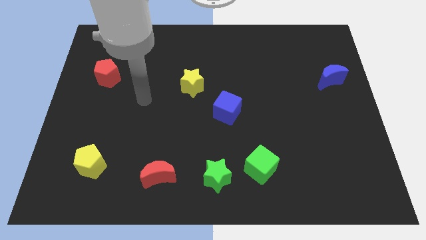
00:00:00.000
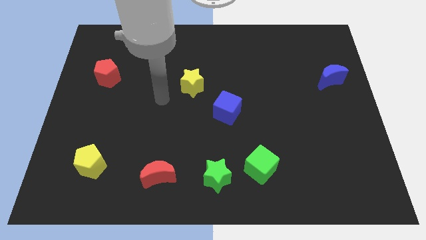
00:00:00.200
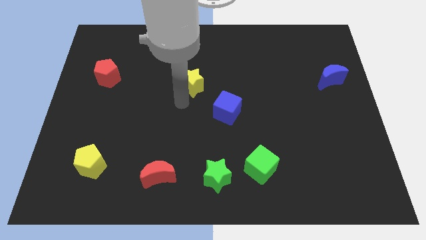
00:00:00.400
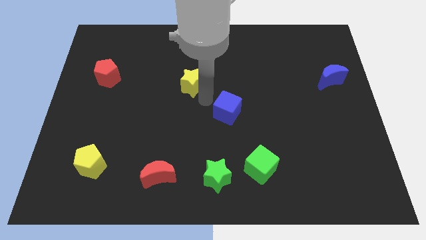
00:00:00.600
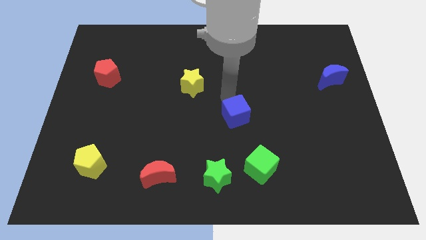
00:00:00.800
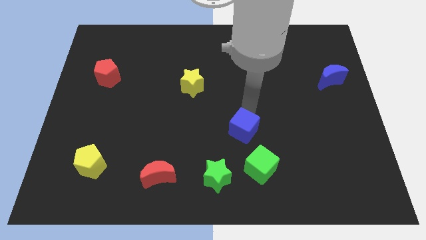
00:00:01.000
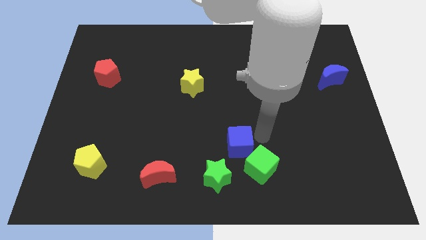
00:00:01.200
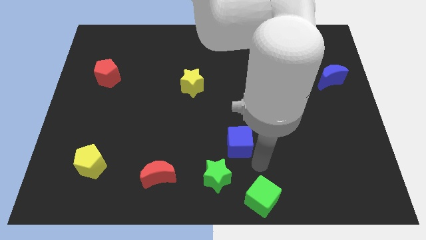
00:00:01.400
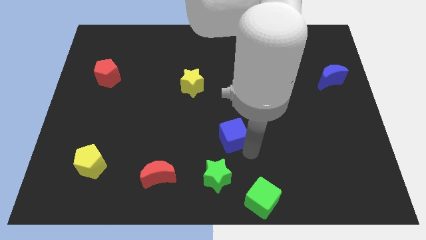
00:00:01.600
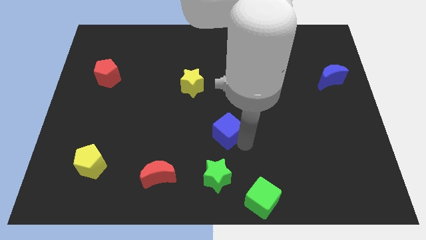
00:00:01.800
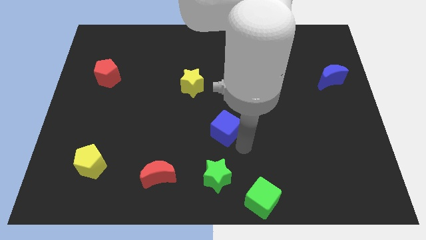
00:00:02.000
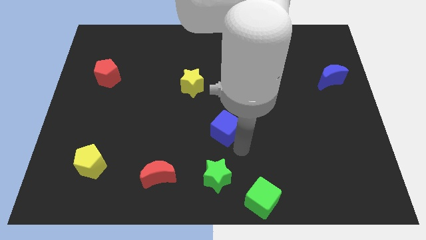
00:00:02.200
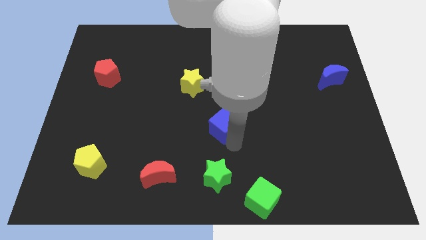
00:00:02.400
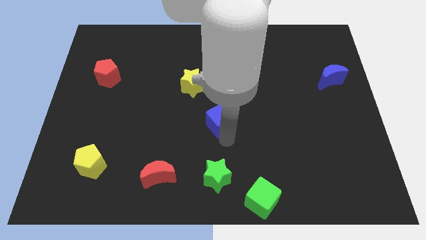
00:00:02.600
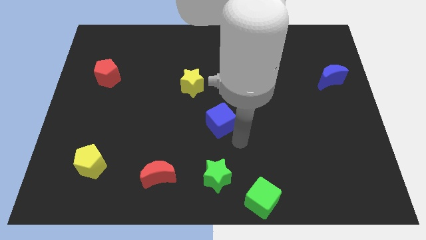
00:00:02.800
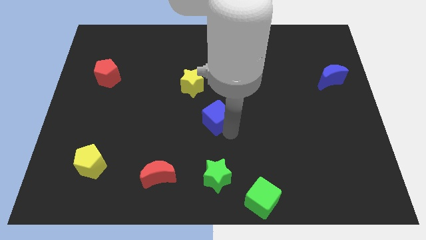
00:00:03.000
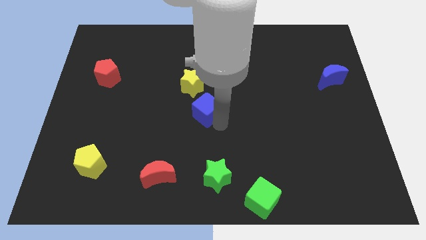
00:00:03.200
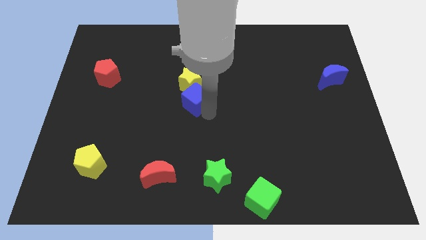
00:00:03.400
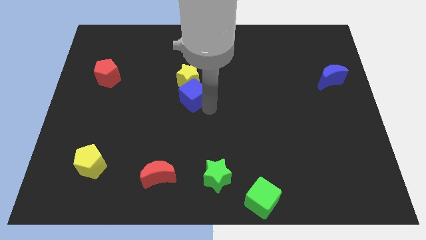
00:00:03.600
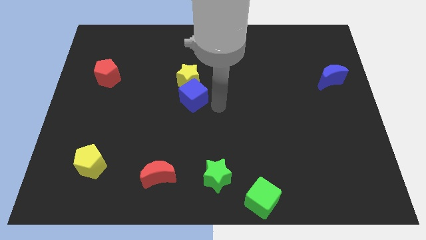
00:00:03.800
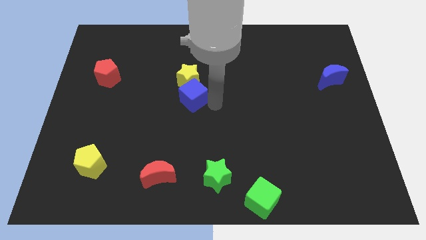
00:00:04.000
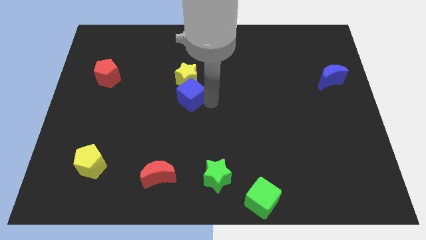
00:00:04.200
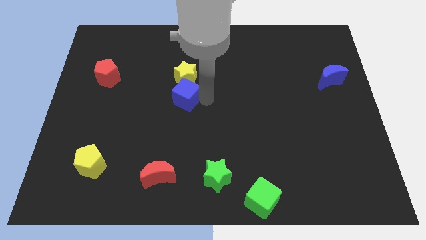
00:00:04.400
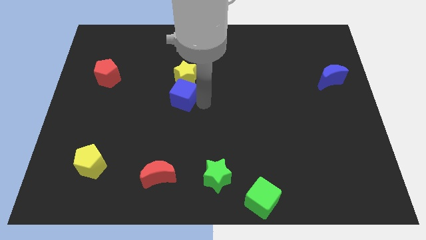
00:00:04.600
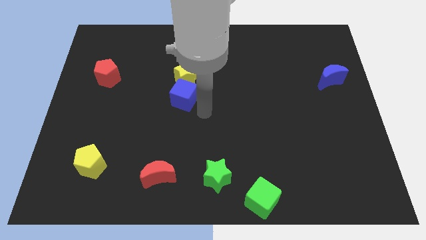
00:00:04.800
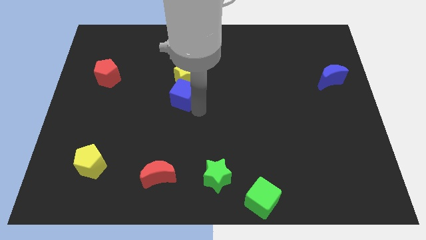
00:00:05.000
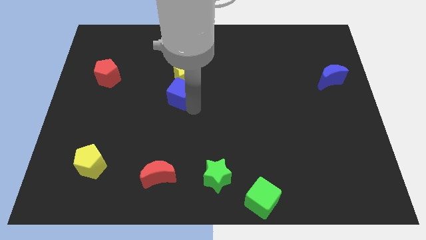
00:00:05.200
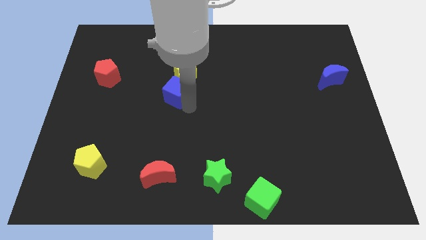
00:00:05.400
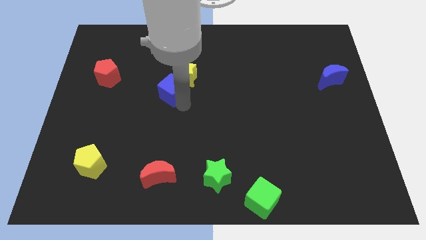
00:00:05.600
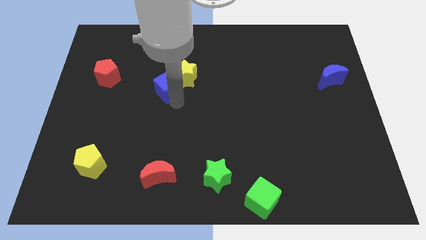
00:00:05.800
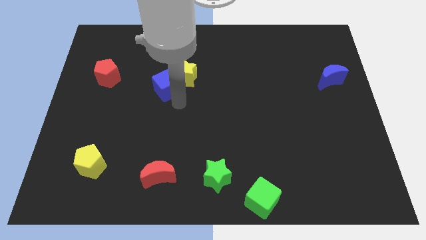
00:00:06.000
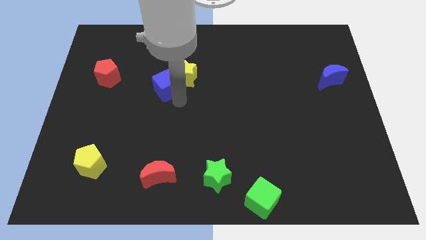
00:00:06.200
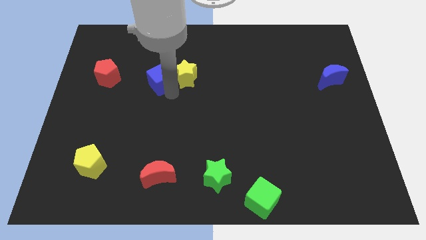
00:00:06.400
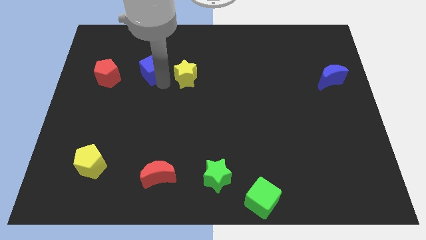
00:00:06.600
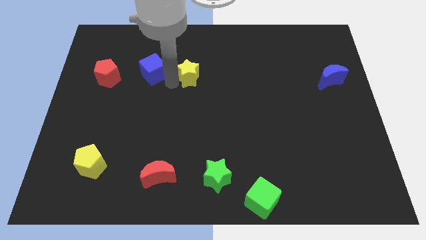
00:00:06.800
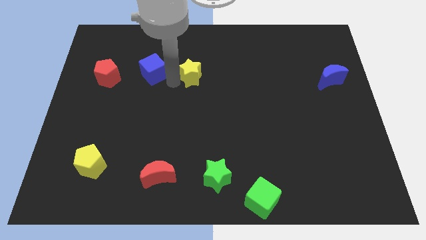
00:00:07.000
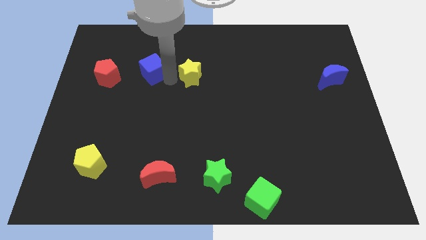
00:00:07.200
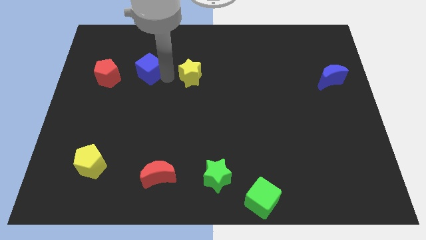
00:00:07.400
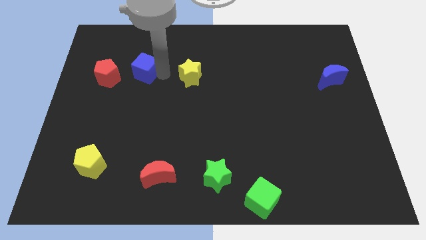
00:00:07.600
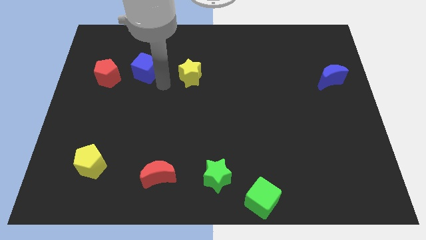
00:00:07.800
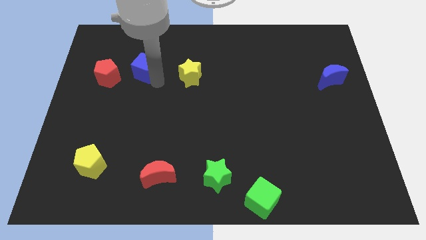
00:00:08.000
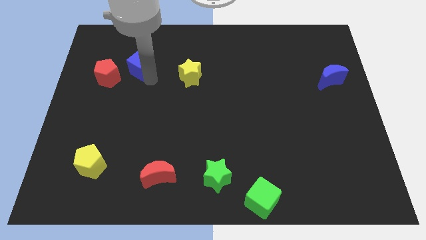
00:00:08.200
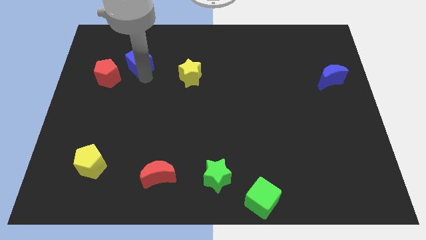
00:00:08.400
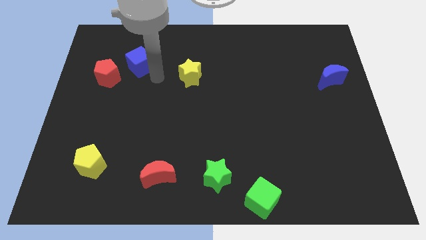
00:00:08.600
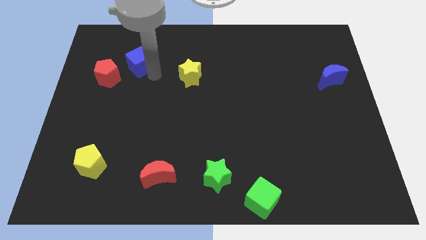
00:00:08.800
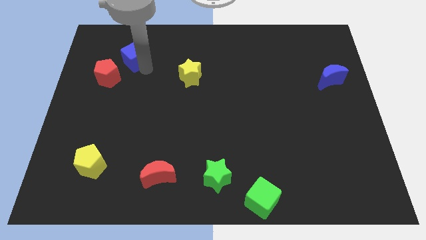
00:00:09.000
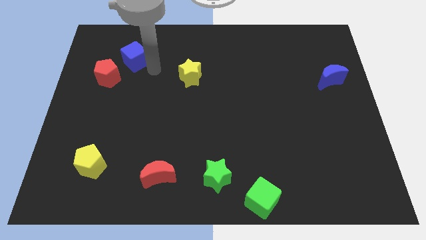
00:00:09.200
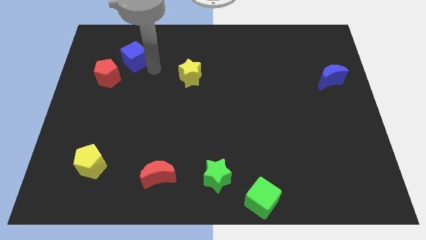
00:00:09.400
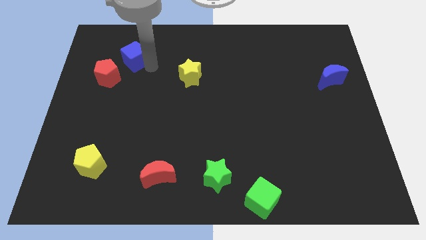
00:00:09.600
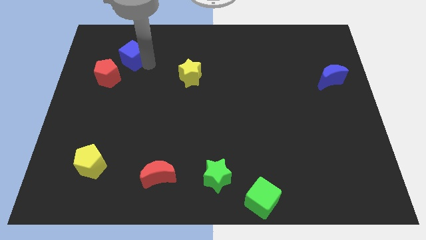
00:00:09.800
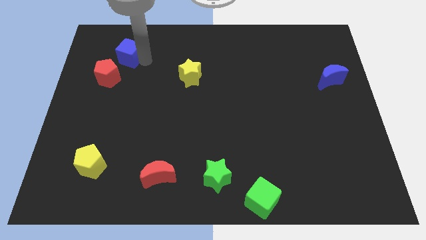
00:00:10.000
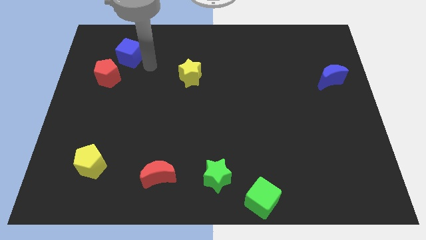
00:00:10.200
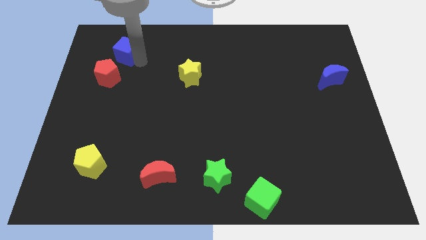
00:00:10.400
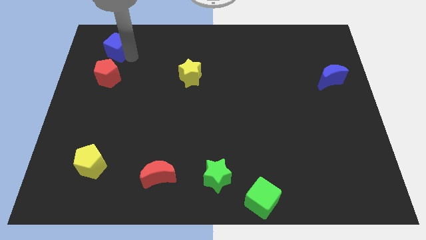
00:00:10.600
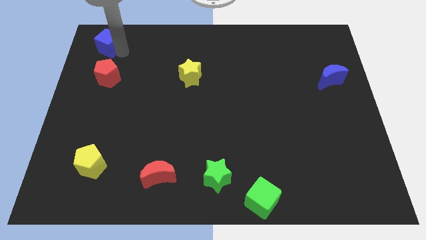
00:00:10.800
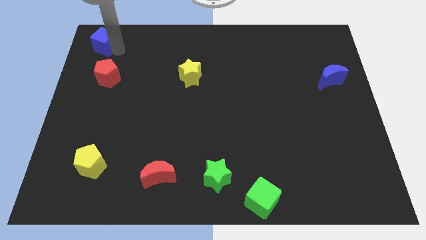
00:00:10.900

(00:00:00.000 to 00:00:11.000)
push the blue cube to the top left corner

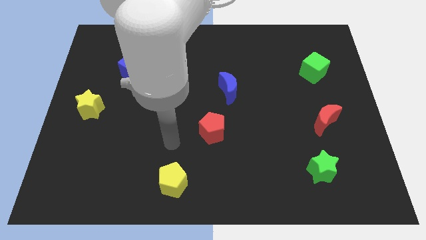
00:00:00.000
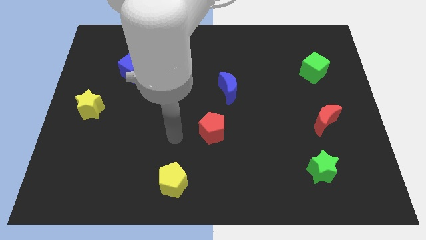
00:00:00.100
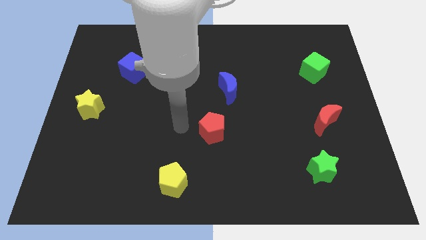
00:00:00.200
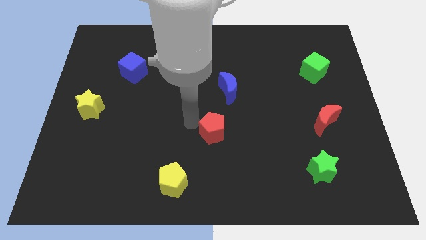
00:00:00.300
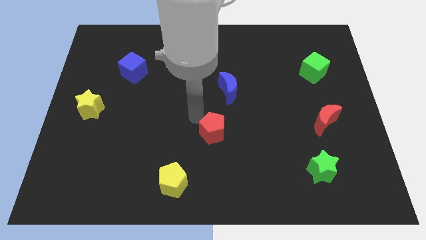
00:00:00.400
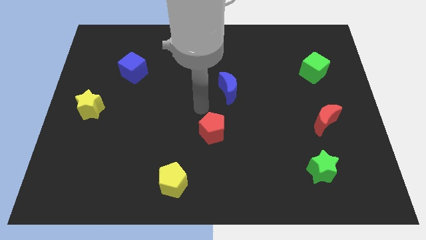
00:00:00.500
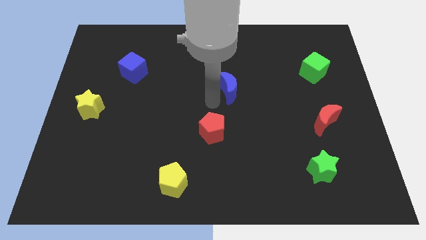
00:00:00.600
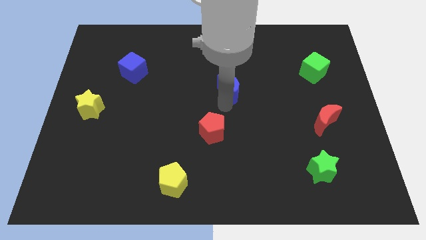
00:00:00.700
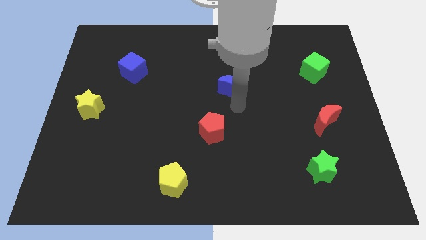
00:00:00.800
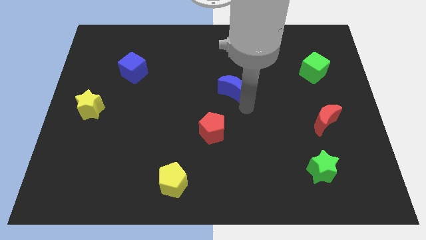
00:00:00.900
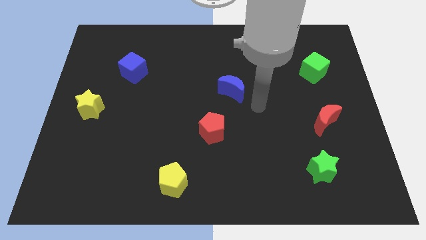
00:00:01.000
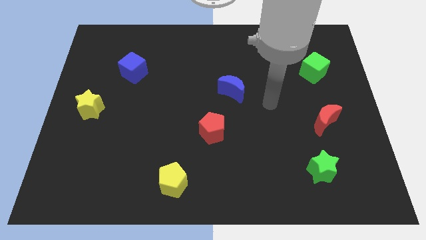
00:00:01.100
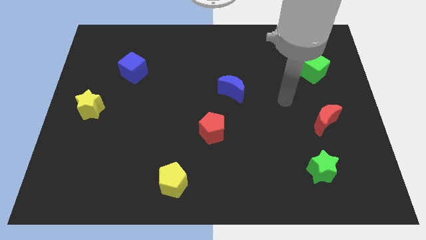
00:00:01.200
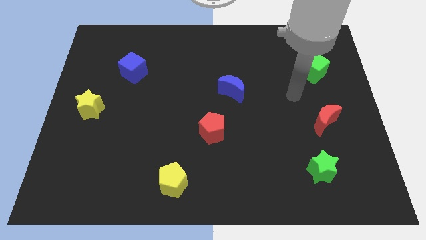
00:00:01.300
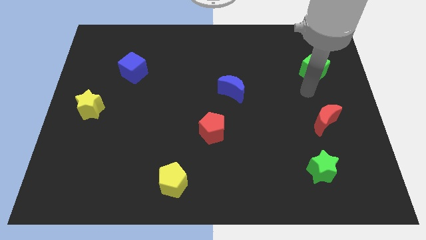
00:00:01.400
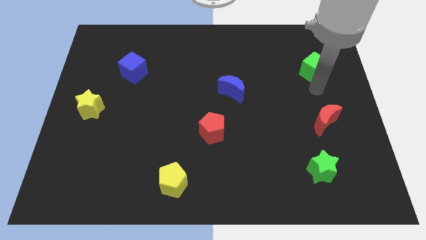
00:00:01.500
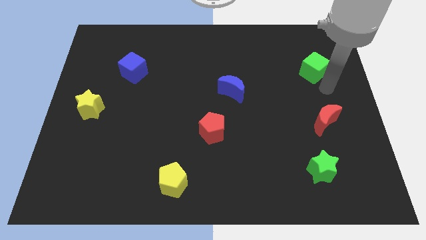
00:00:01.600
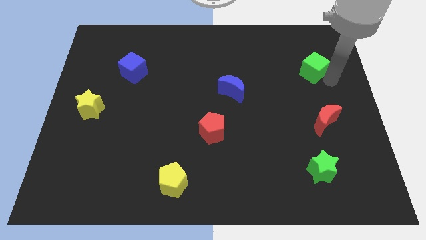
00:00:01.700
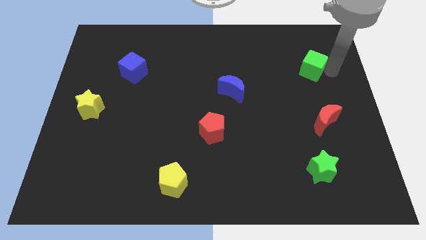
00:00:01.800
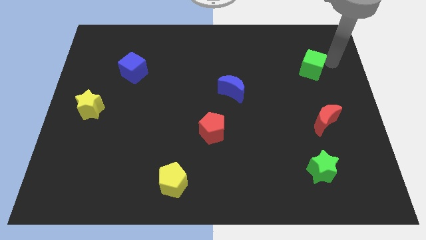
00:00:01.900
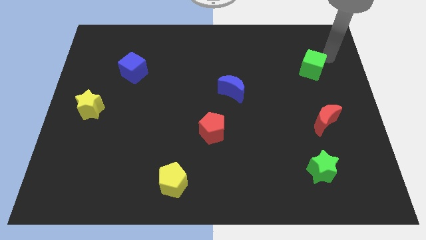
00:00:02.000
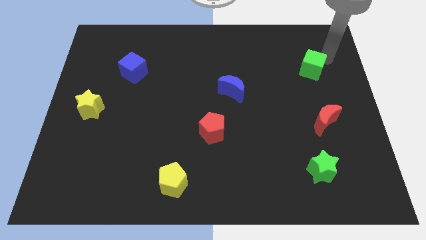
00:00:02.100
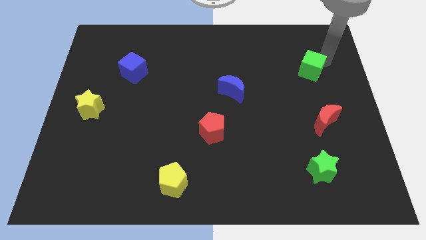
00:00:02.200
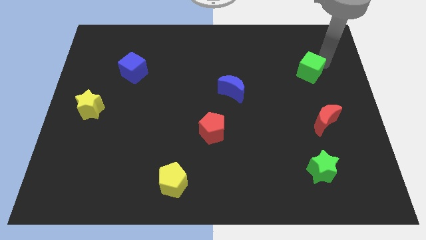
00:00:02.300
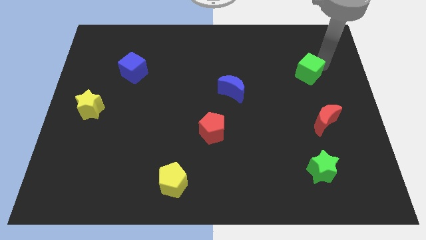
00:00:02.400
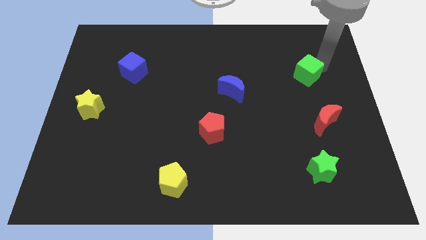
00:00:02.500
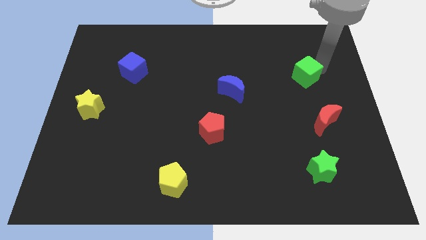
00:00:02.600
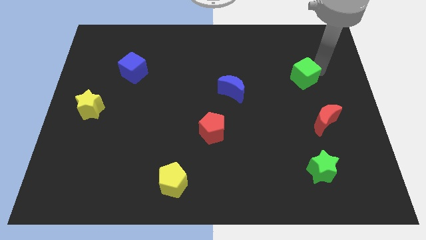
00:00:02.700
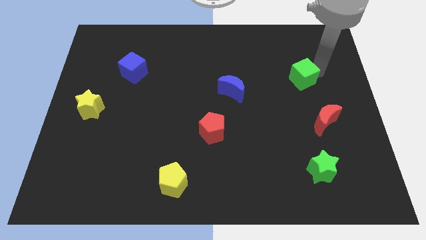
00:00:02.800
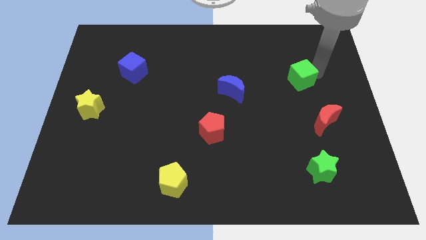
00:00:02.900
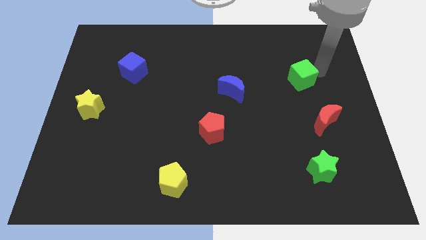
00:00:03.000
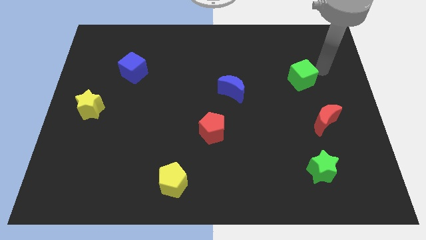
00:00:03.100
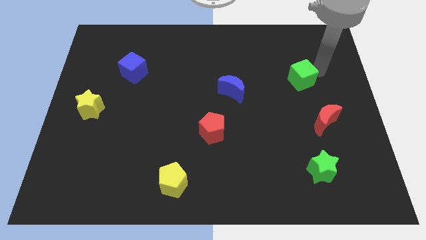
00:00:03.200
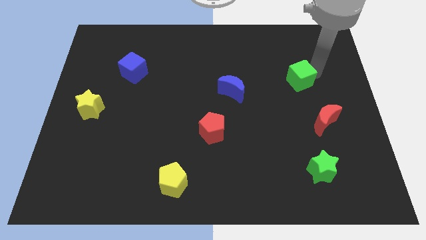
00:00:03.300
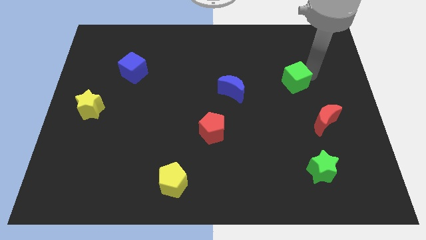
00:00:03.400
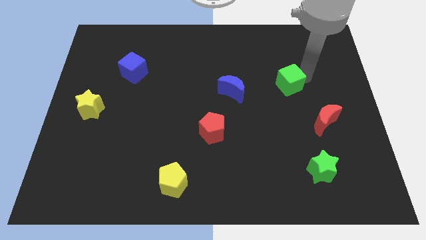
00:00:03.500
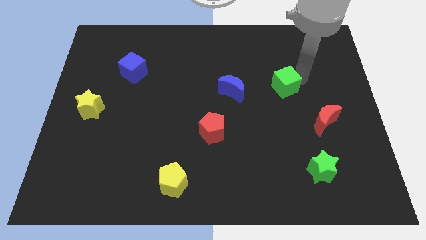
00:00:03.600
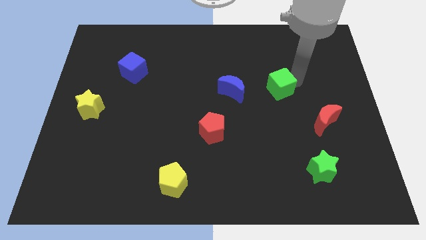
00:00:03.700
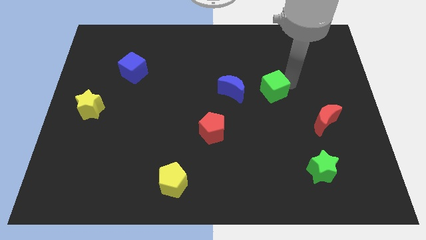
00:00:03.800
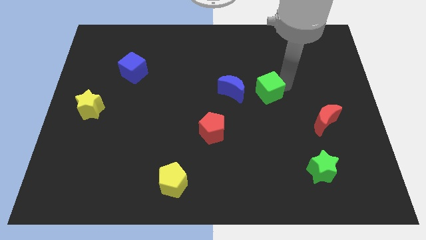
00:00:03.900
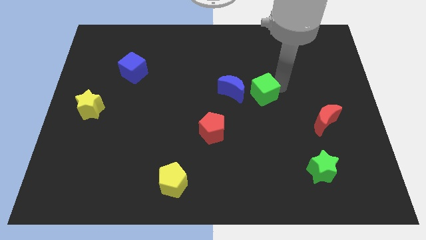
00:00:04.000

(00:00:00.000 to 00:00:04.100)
move the green cube to the center
